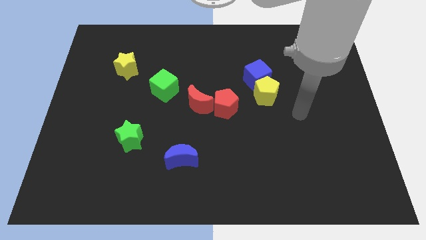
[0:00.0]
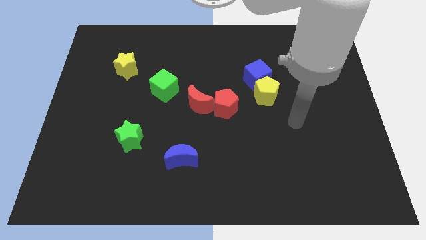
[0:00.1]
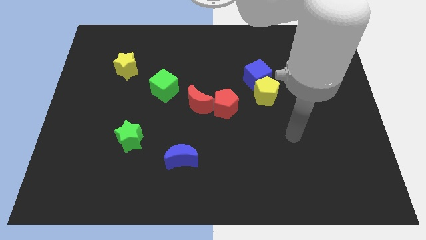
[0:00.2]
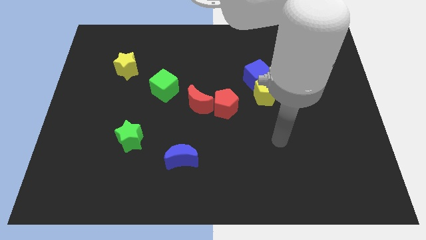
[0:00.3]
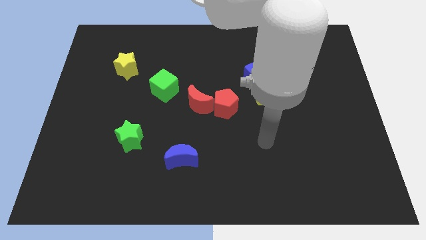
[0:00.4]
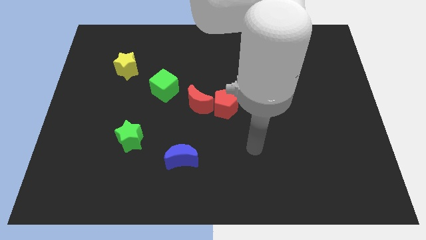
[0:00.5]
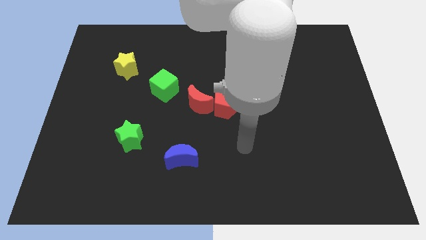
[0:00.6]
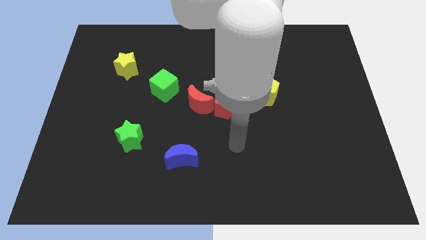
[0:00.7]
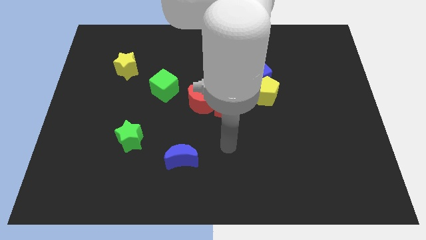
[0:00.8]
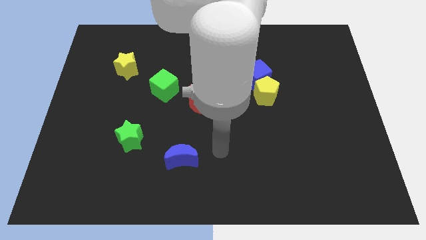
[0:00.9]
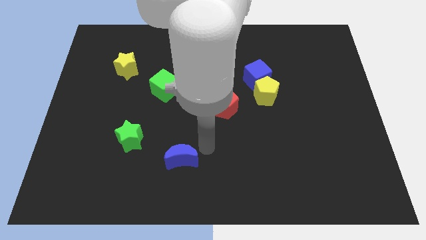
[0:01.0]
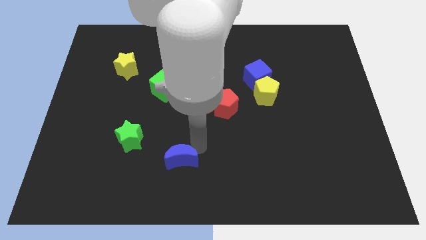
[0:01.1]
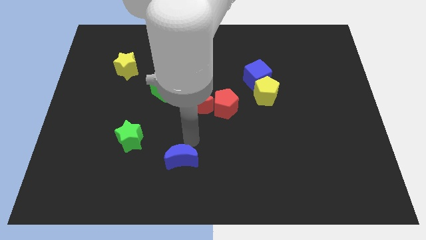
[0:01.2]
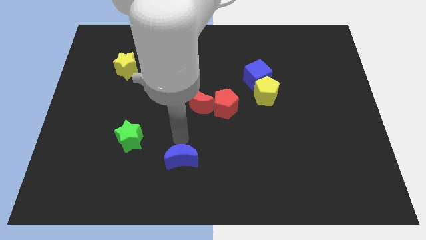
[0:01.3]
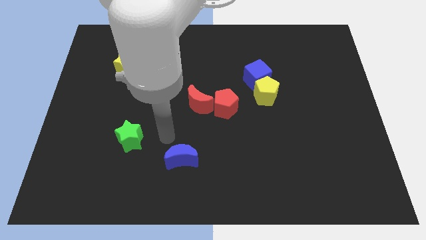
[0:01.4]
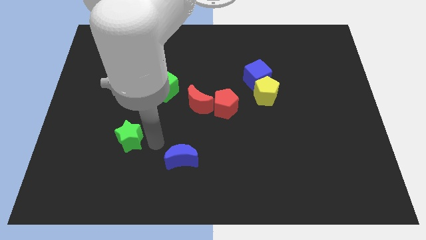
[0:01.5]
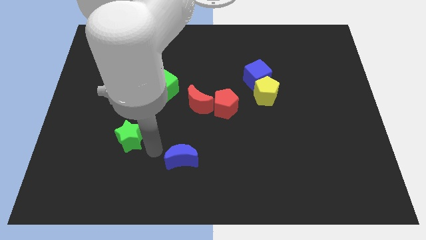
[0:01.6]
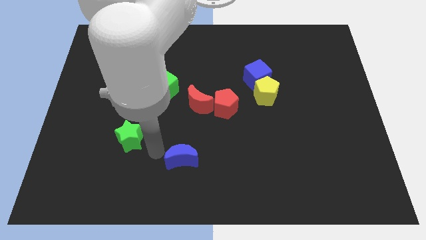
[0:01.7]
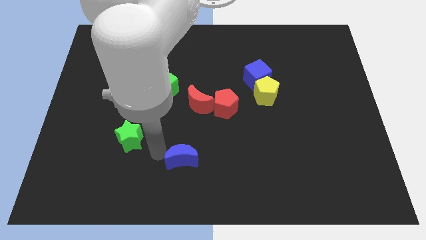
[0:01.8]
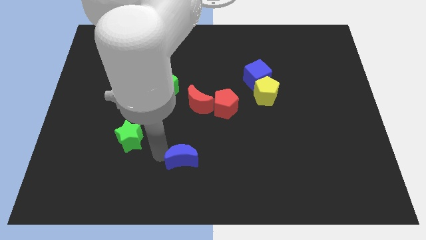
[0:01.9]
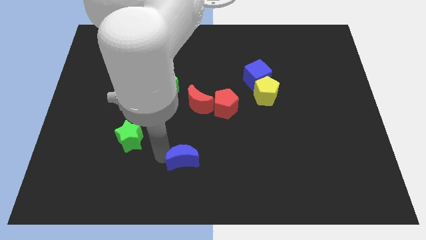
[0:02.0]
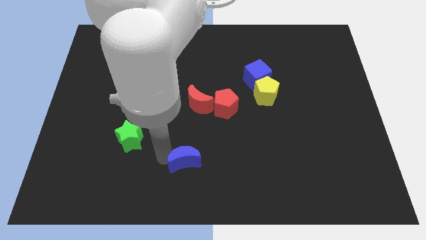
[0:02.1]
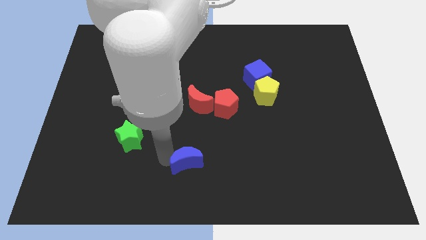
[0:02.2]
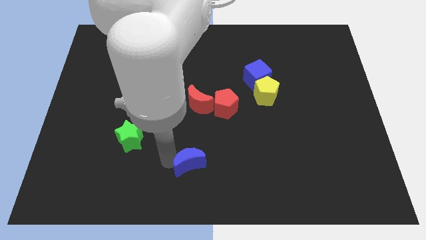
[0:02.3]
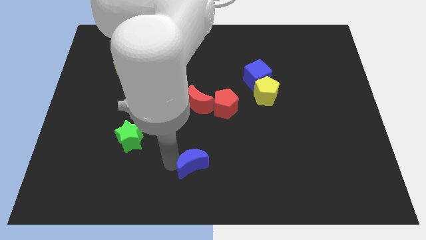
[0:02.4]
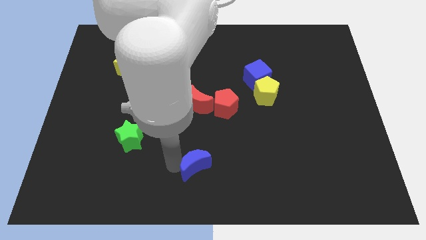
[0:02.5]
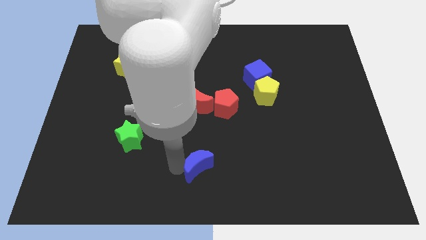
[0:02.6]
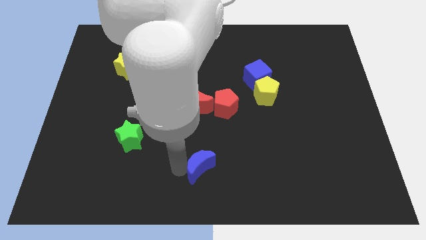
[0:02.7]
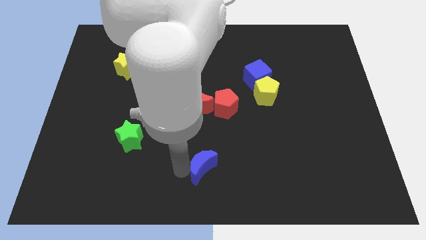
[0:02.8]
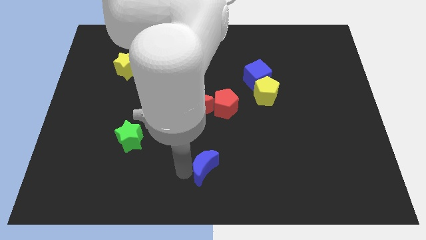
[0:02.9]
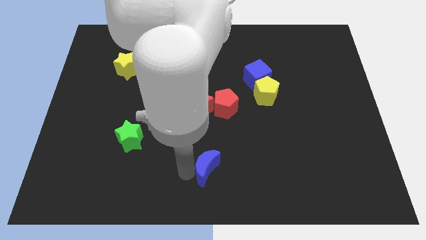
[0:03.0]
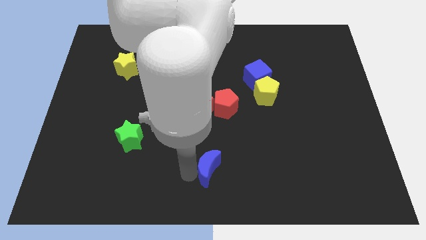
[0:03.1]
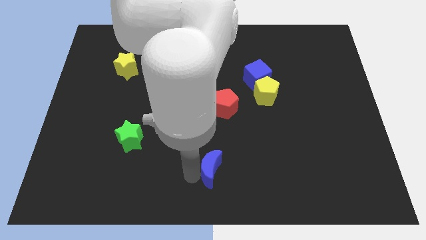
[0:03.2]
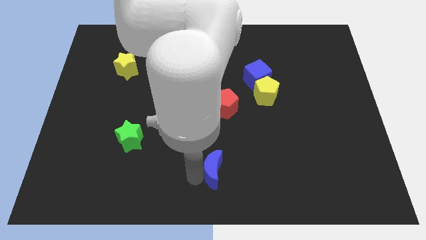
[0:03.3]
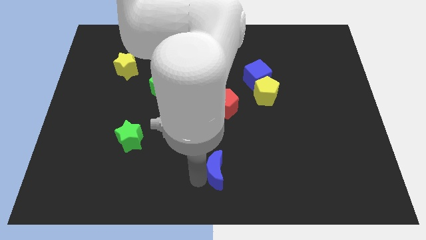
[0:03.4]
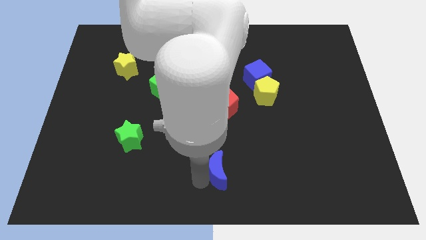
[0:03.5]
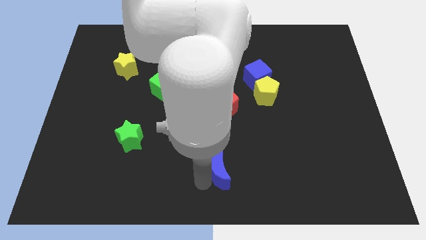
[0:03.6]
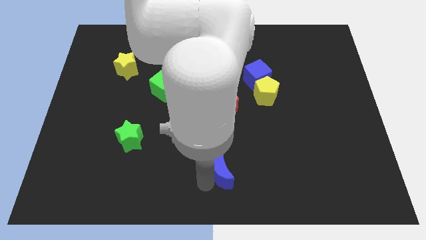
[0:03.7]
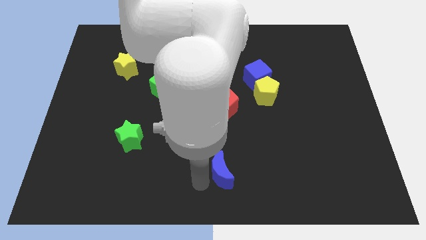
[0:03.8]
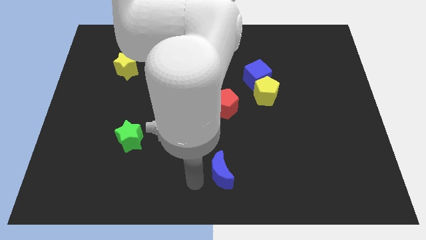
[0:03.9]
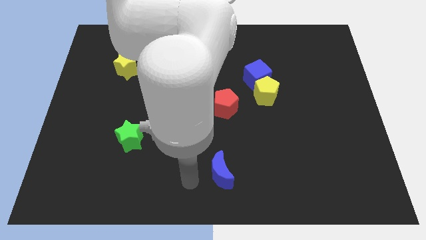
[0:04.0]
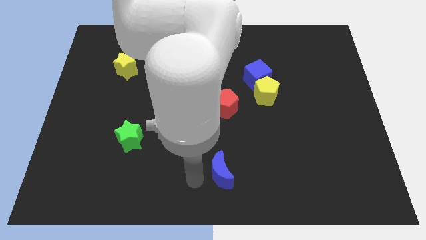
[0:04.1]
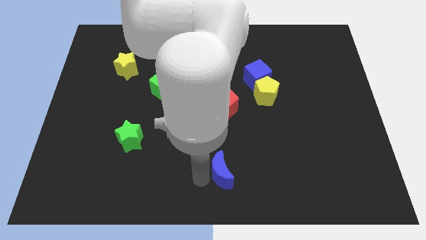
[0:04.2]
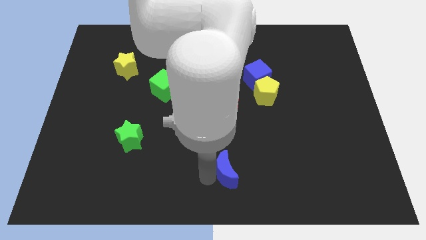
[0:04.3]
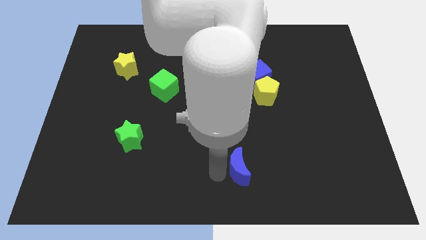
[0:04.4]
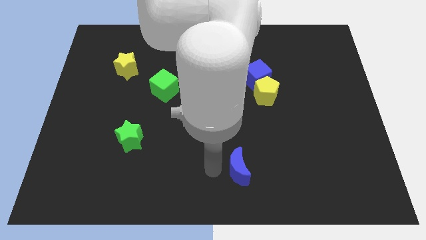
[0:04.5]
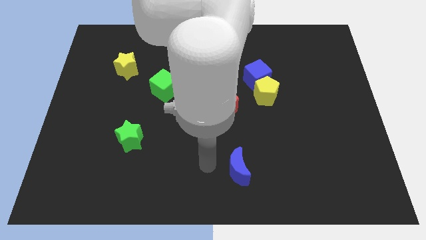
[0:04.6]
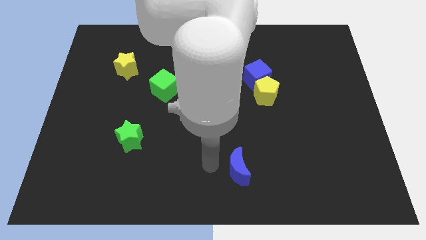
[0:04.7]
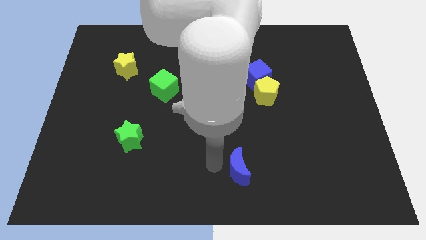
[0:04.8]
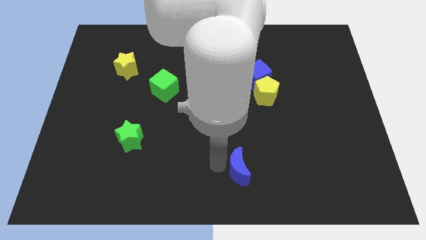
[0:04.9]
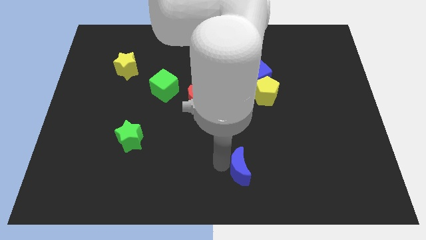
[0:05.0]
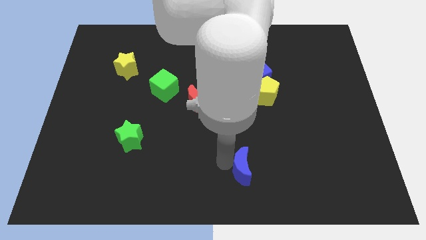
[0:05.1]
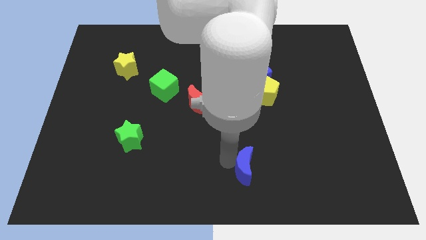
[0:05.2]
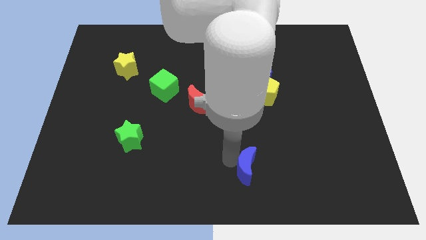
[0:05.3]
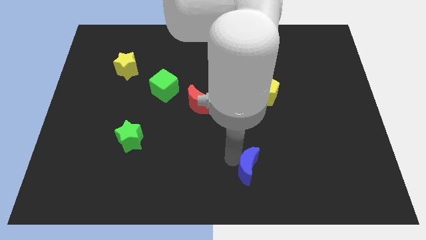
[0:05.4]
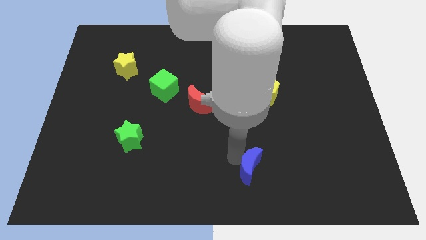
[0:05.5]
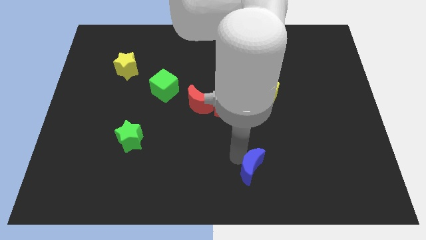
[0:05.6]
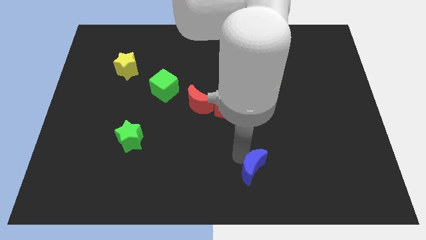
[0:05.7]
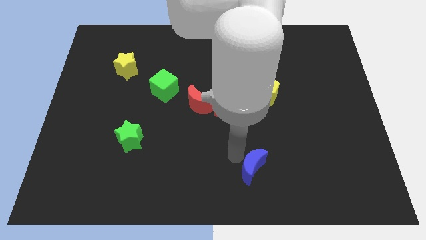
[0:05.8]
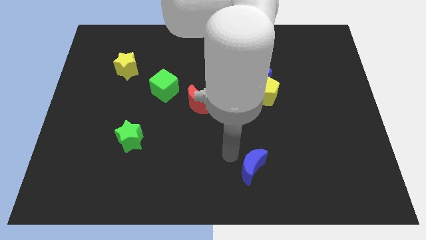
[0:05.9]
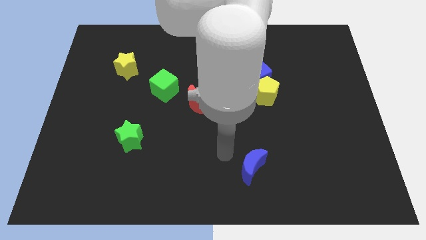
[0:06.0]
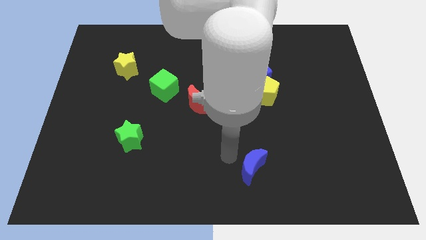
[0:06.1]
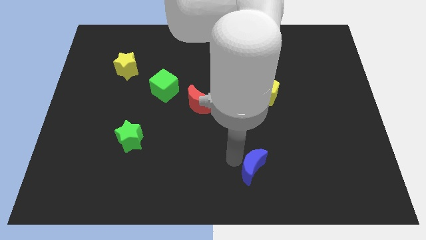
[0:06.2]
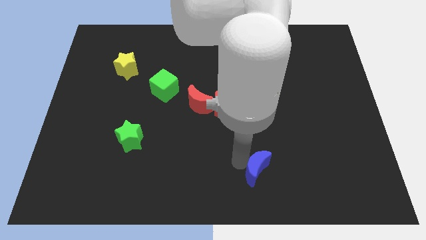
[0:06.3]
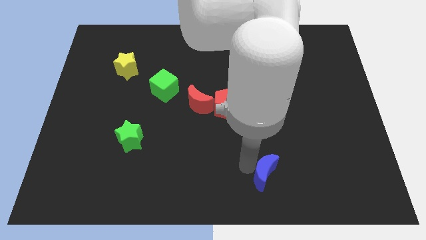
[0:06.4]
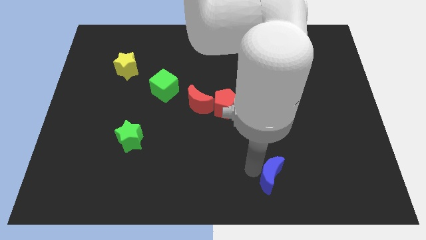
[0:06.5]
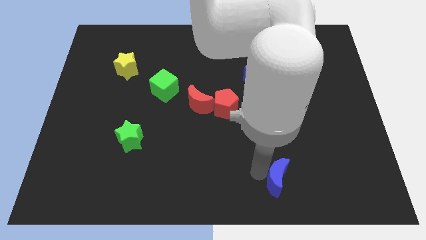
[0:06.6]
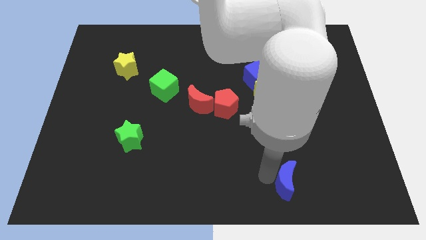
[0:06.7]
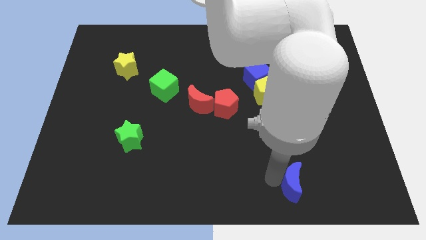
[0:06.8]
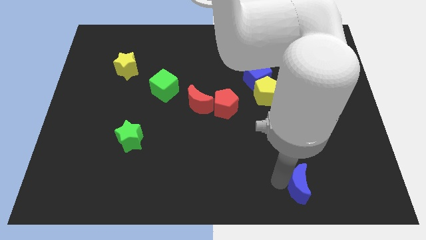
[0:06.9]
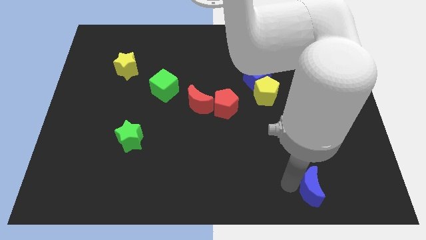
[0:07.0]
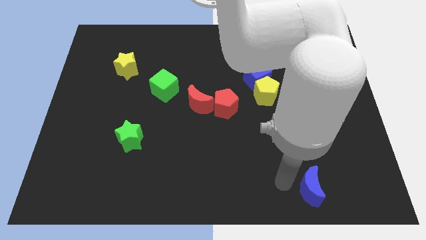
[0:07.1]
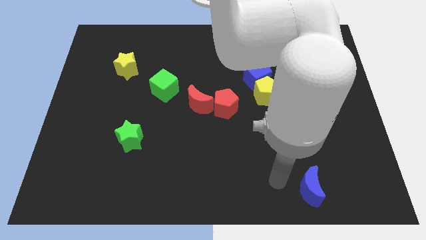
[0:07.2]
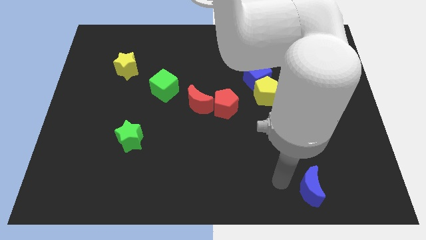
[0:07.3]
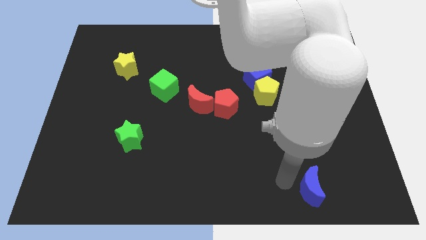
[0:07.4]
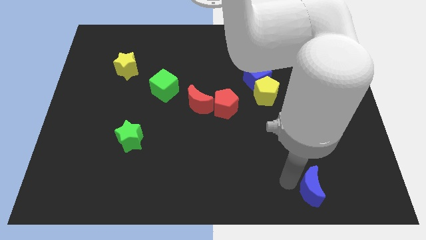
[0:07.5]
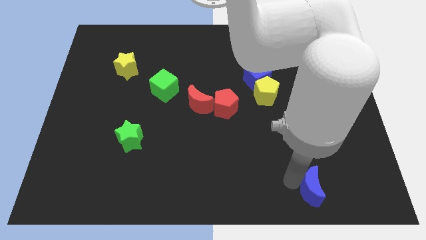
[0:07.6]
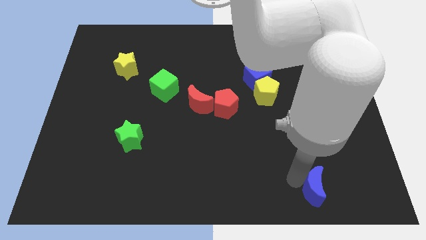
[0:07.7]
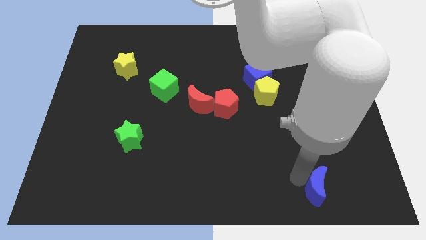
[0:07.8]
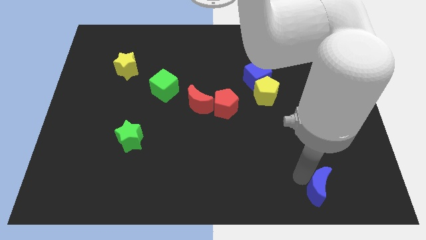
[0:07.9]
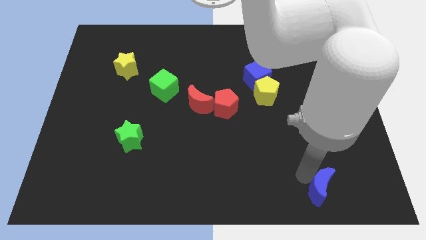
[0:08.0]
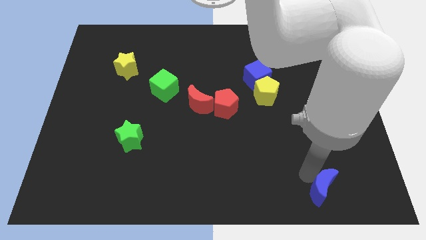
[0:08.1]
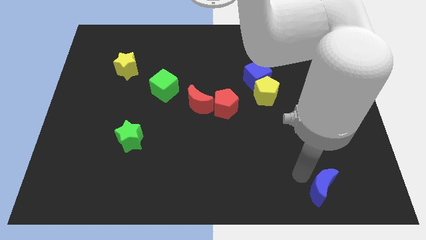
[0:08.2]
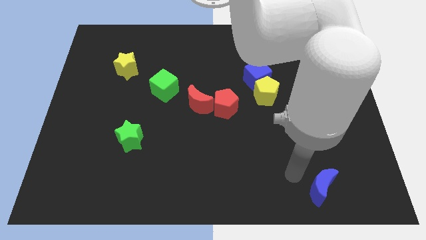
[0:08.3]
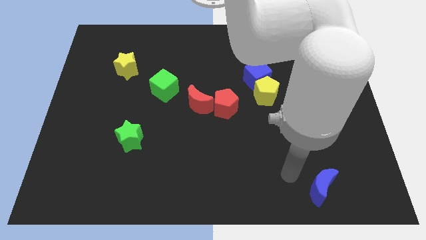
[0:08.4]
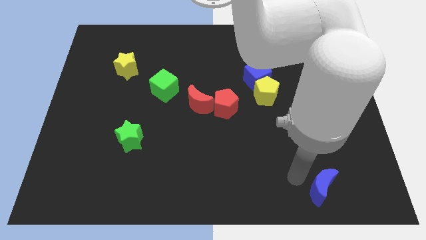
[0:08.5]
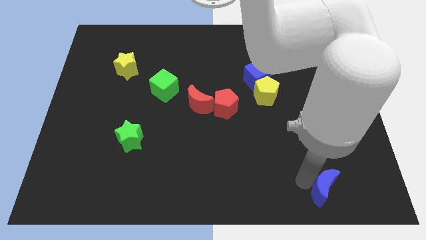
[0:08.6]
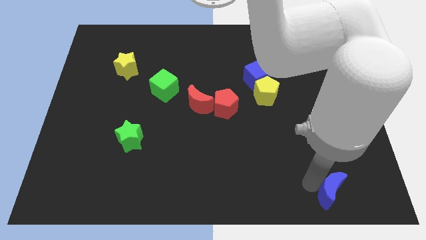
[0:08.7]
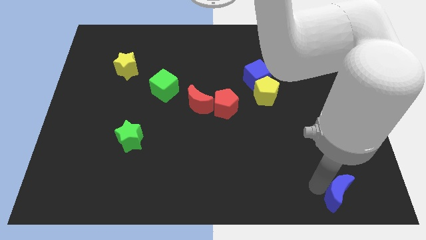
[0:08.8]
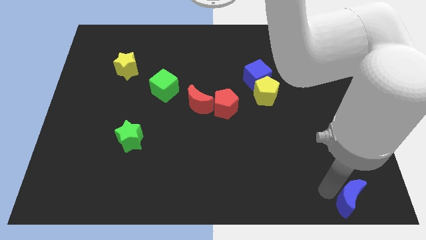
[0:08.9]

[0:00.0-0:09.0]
put the blue moon to the bottom right corner
